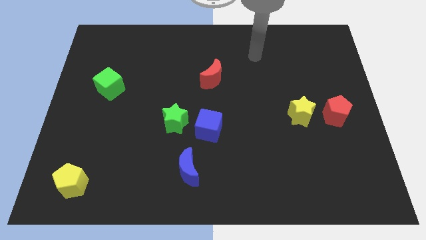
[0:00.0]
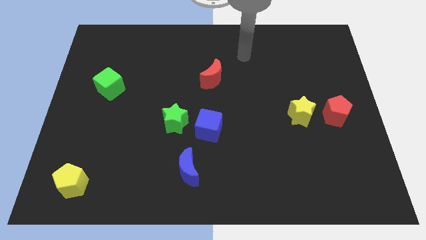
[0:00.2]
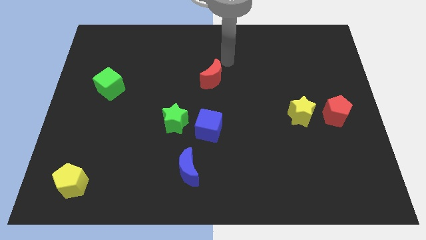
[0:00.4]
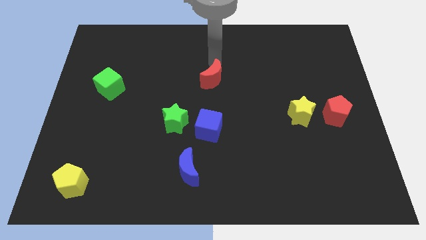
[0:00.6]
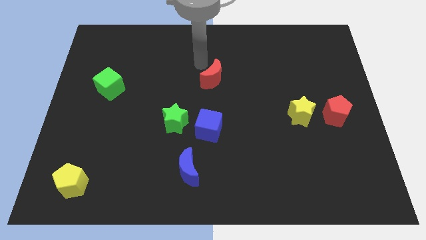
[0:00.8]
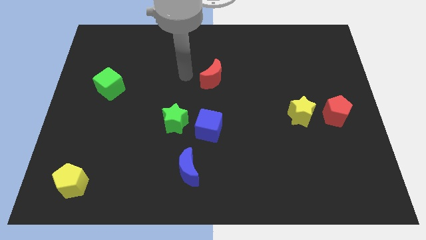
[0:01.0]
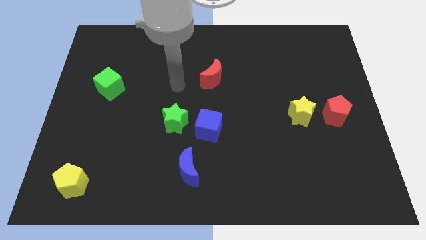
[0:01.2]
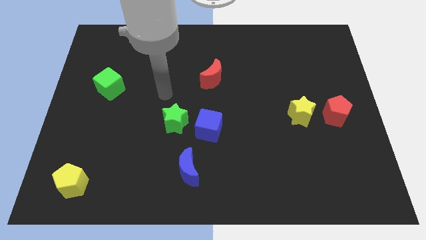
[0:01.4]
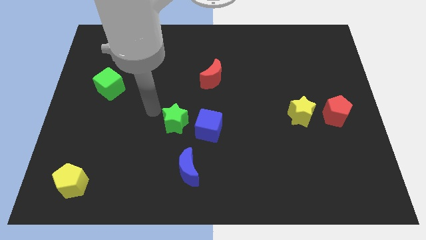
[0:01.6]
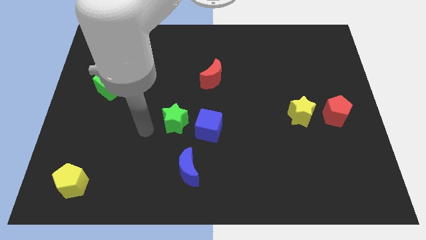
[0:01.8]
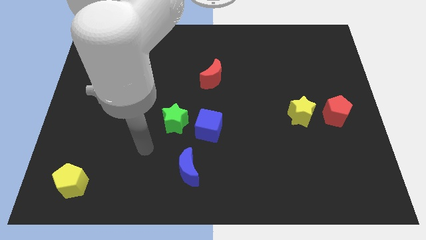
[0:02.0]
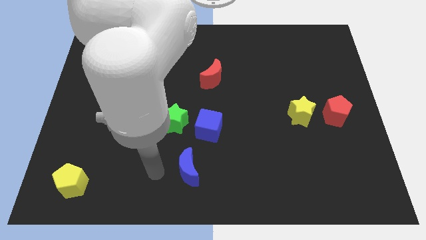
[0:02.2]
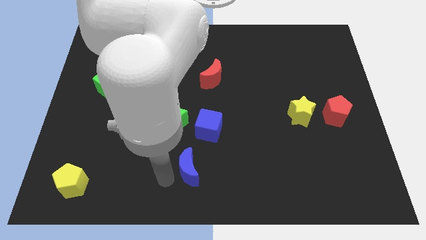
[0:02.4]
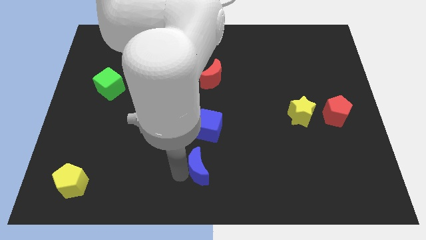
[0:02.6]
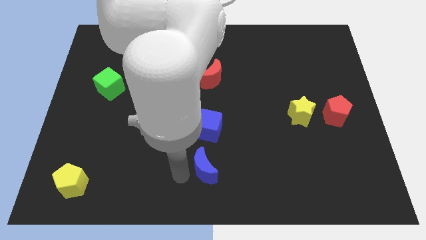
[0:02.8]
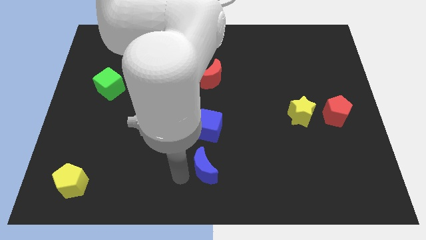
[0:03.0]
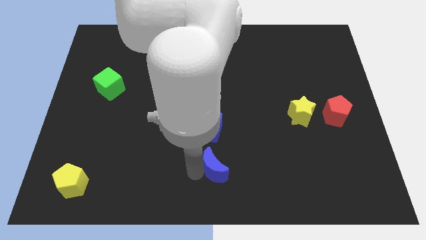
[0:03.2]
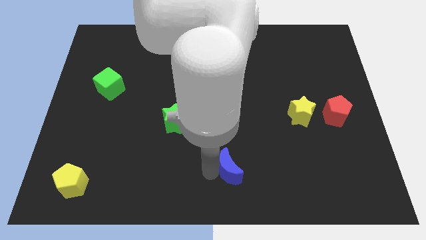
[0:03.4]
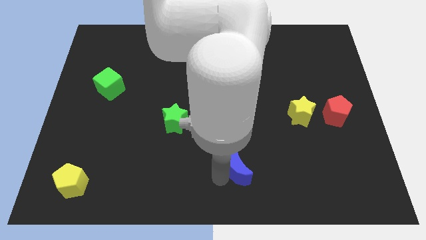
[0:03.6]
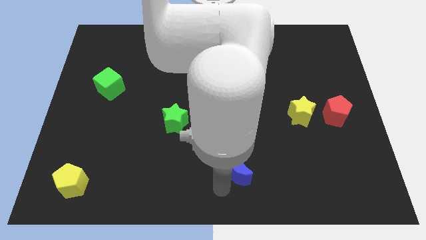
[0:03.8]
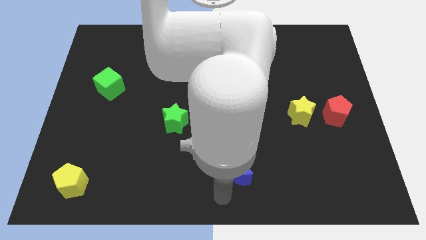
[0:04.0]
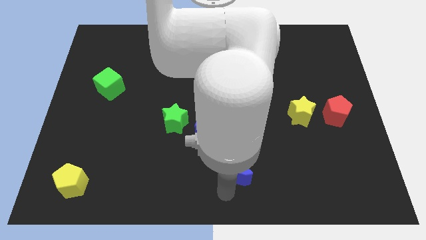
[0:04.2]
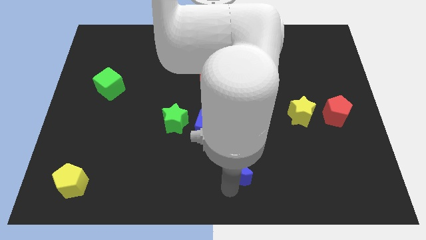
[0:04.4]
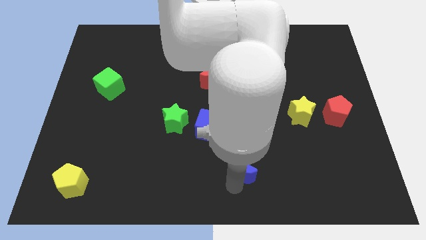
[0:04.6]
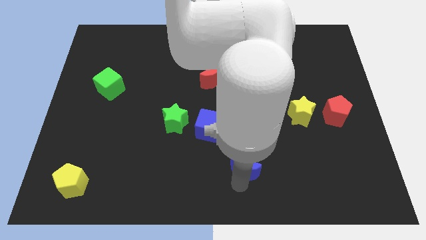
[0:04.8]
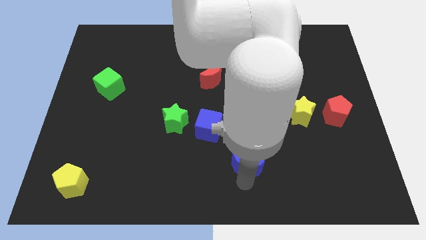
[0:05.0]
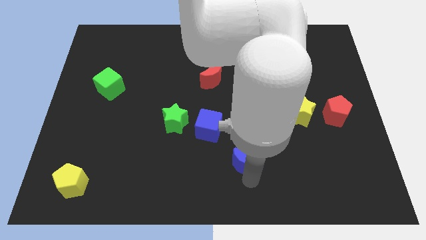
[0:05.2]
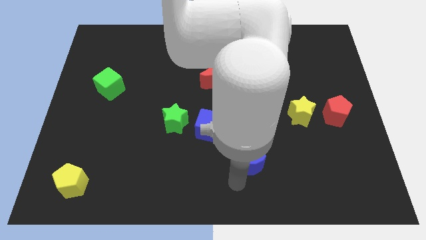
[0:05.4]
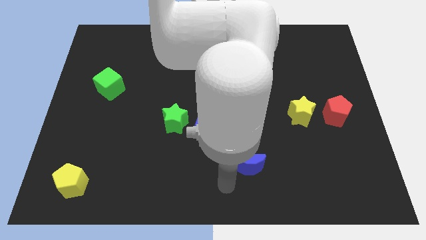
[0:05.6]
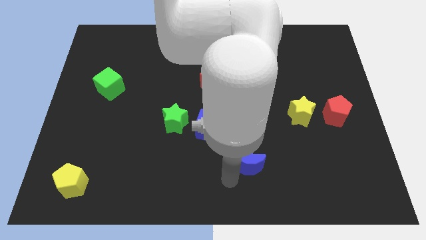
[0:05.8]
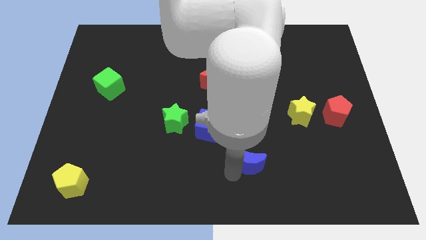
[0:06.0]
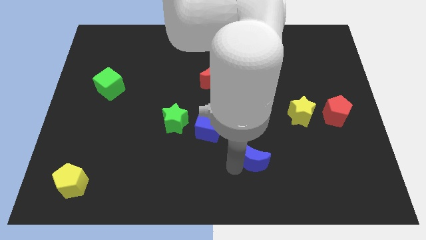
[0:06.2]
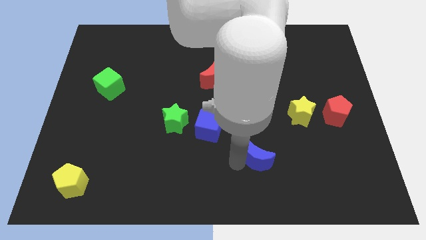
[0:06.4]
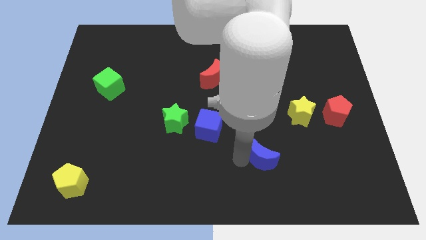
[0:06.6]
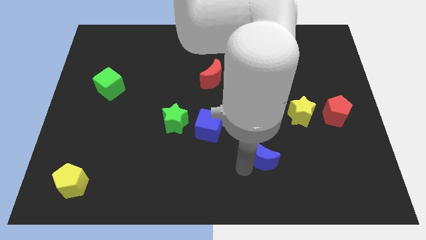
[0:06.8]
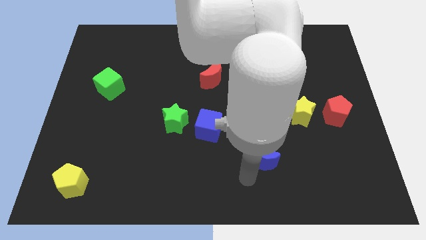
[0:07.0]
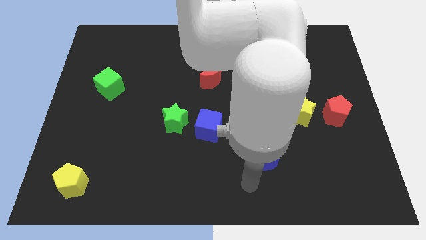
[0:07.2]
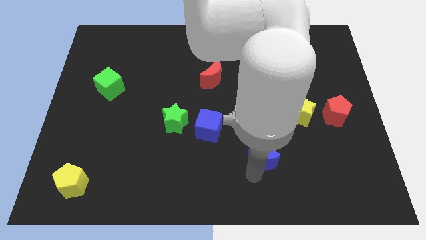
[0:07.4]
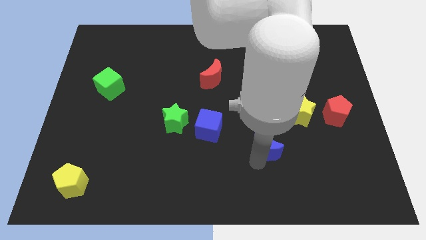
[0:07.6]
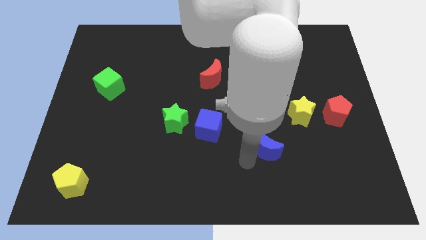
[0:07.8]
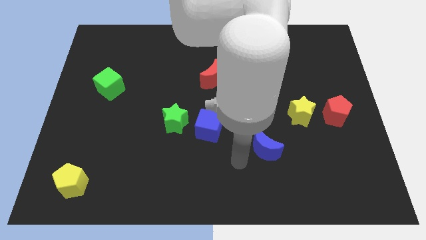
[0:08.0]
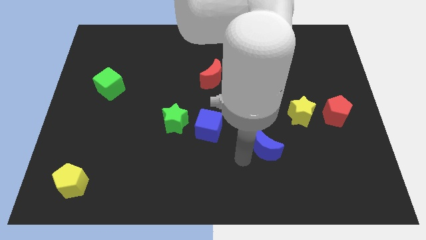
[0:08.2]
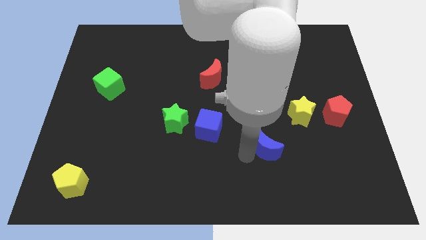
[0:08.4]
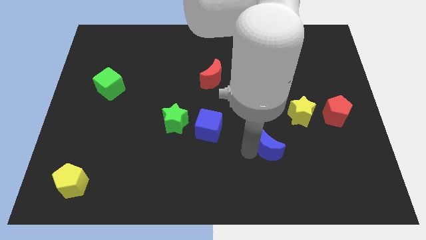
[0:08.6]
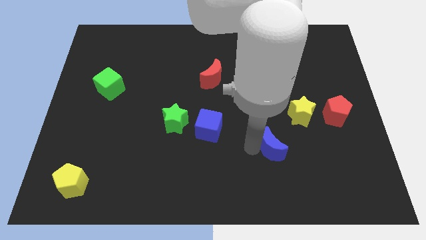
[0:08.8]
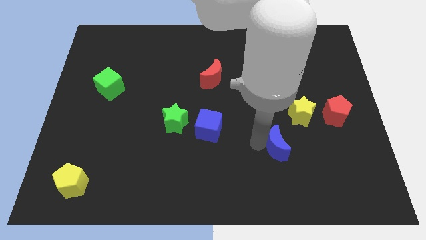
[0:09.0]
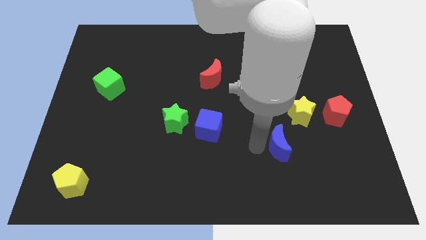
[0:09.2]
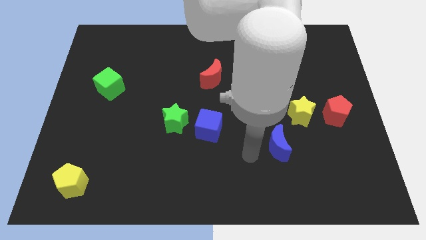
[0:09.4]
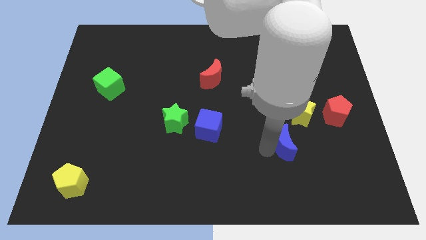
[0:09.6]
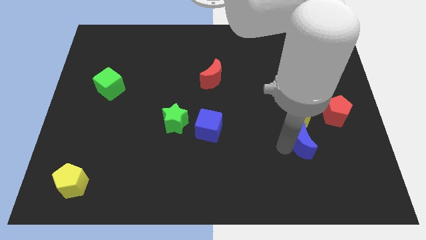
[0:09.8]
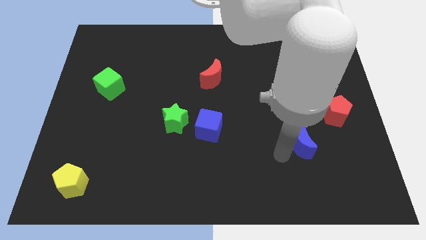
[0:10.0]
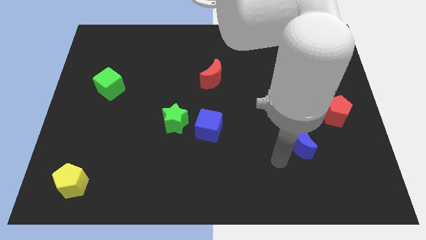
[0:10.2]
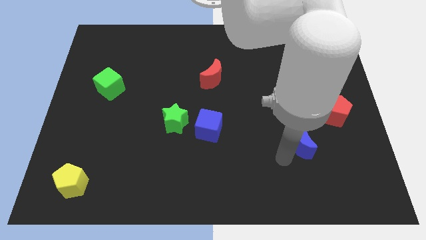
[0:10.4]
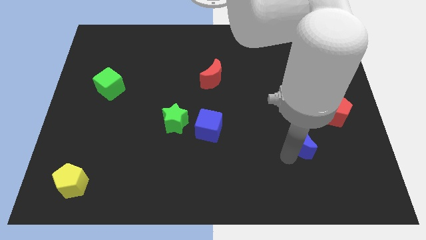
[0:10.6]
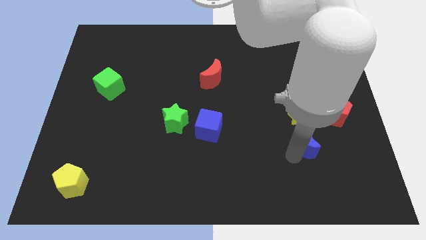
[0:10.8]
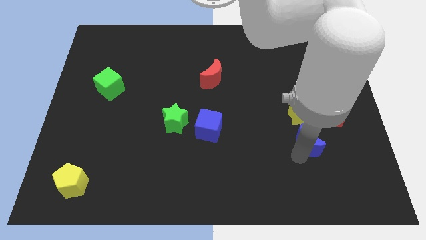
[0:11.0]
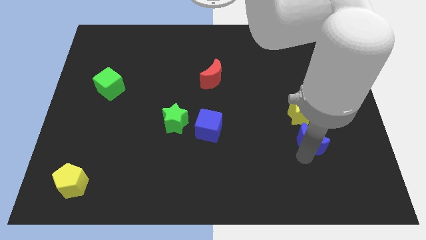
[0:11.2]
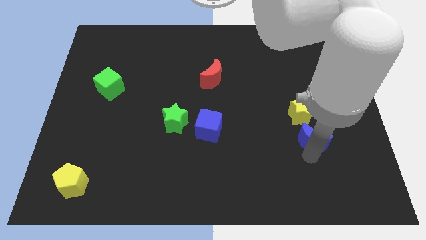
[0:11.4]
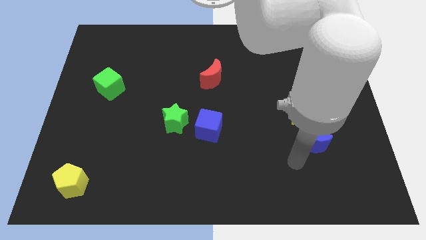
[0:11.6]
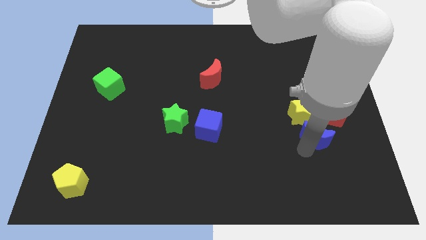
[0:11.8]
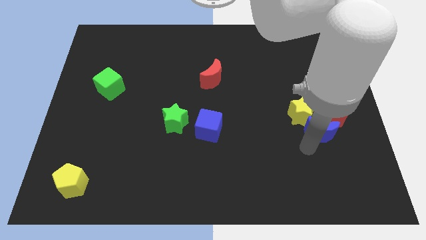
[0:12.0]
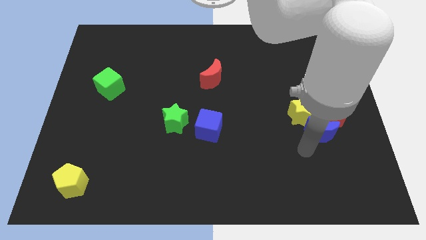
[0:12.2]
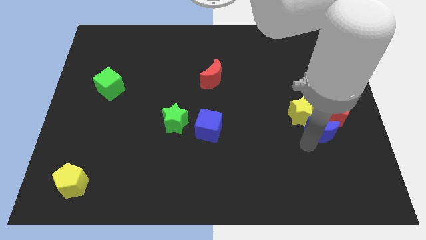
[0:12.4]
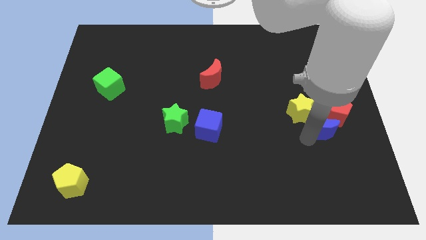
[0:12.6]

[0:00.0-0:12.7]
put the blue moon close to the red pentagon

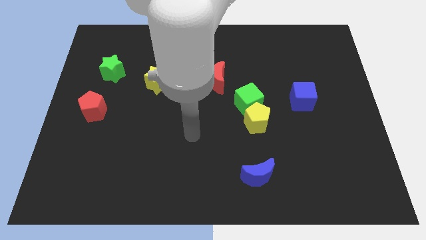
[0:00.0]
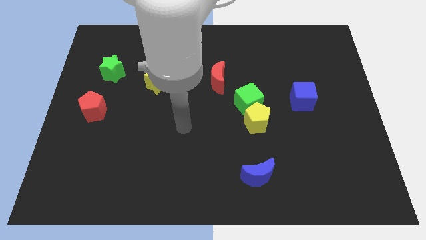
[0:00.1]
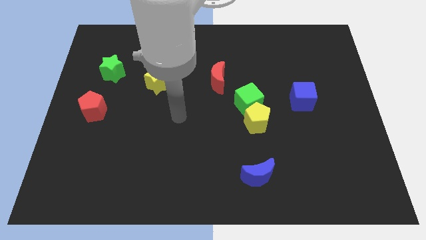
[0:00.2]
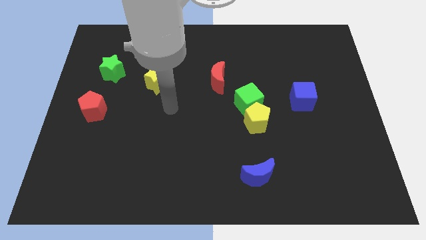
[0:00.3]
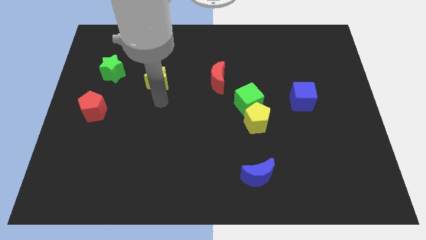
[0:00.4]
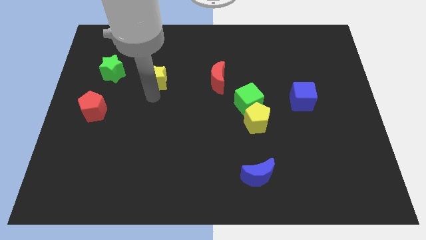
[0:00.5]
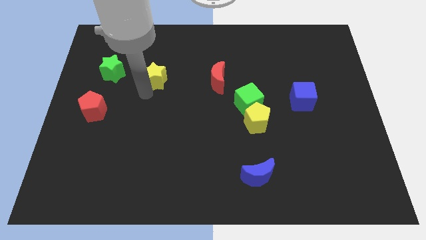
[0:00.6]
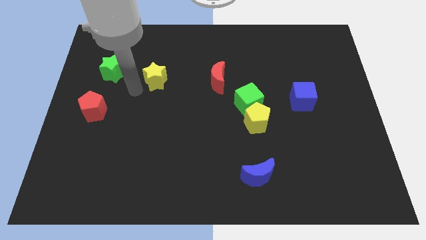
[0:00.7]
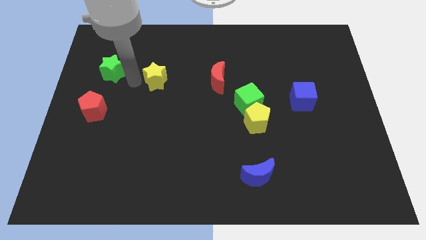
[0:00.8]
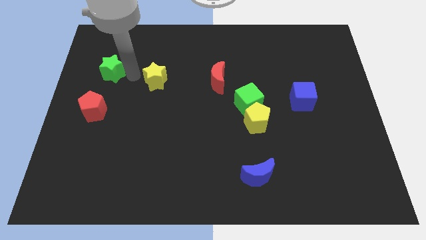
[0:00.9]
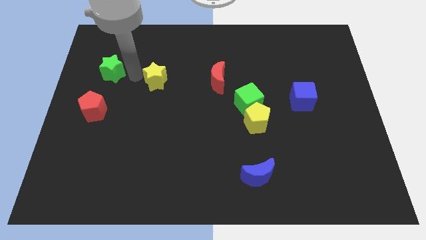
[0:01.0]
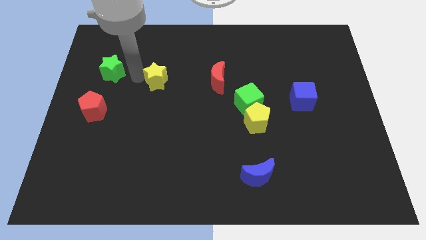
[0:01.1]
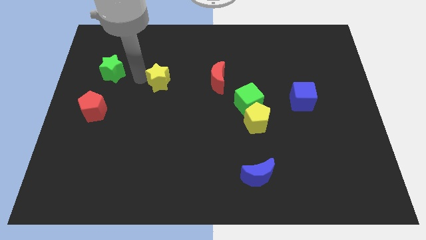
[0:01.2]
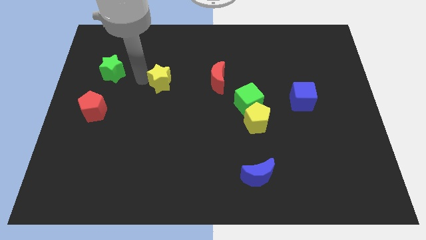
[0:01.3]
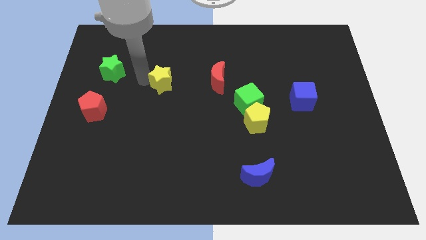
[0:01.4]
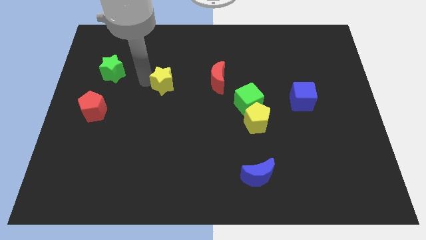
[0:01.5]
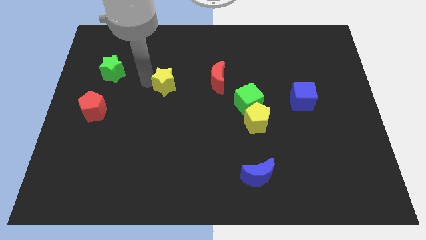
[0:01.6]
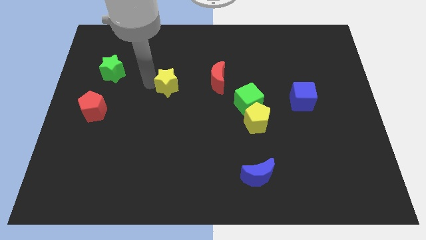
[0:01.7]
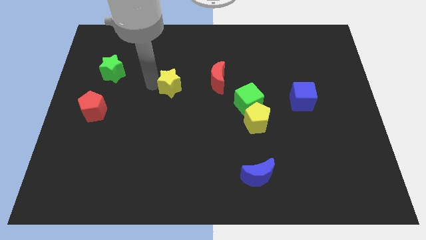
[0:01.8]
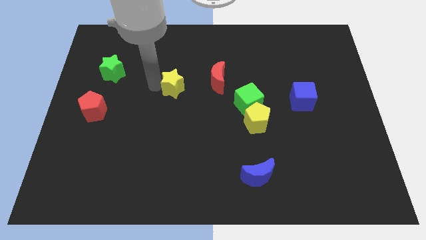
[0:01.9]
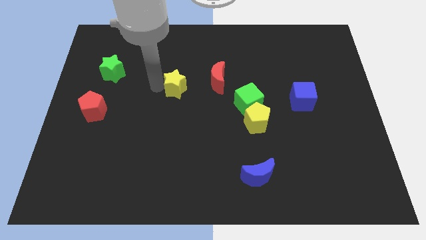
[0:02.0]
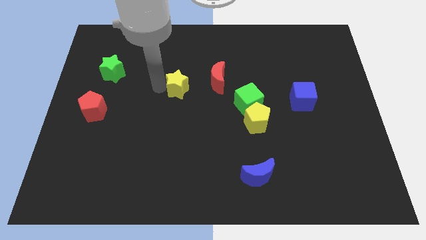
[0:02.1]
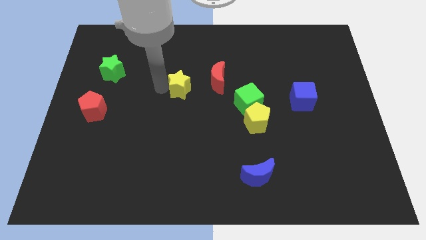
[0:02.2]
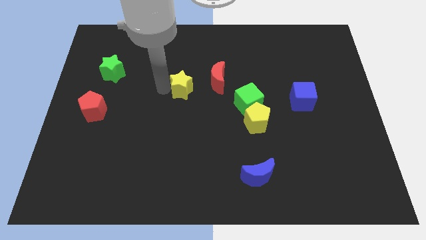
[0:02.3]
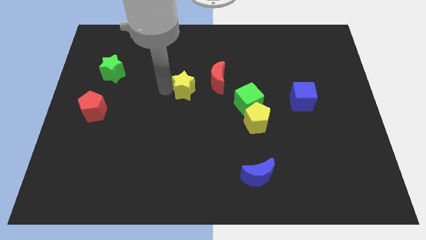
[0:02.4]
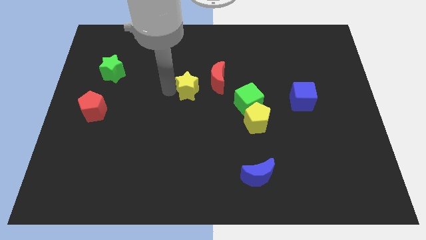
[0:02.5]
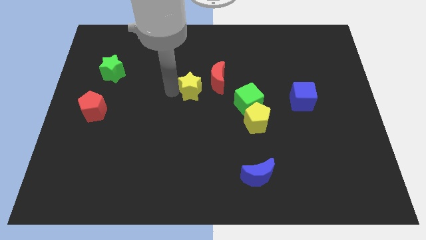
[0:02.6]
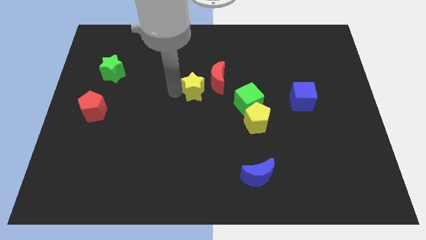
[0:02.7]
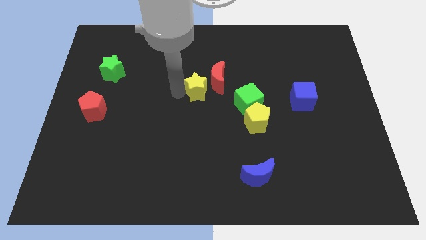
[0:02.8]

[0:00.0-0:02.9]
slide the yellow star close to the red moon
